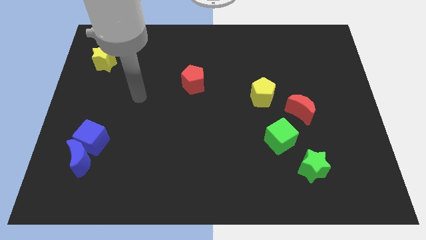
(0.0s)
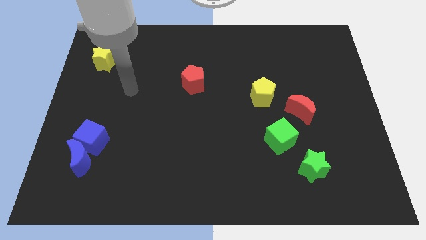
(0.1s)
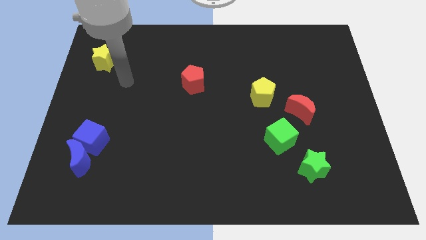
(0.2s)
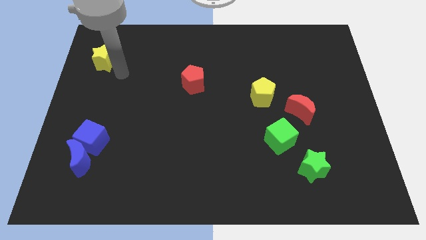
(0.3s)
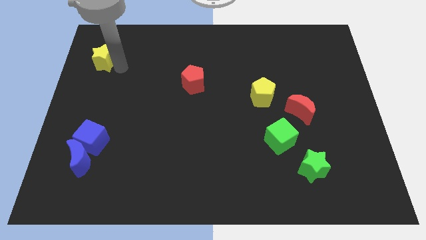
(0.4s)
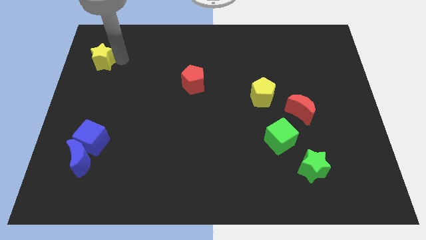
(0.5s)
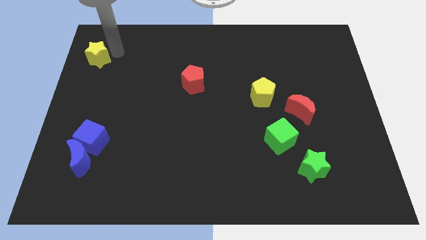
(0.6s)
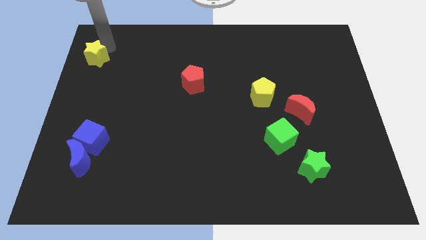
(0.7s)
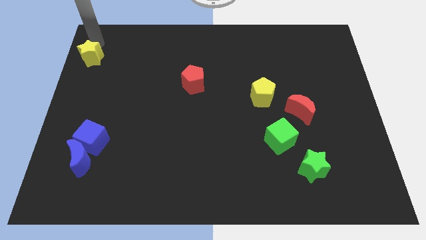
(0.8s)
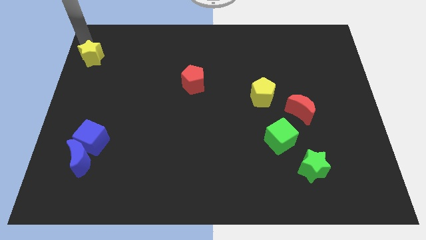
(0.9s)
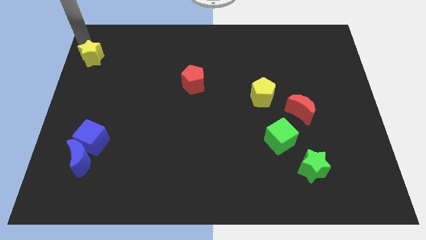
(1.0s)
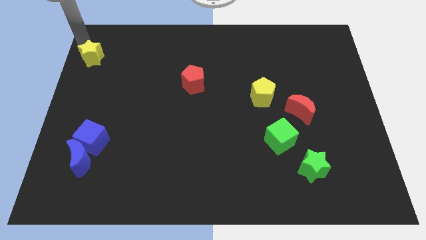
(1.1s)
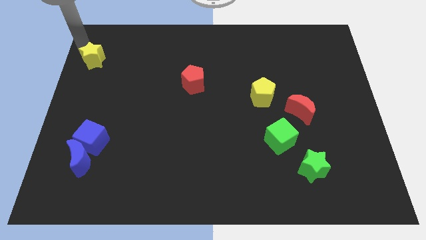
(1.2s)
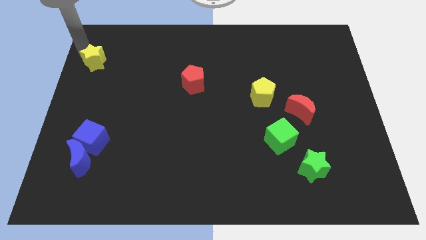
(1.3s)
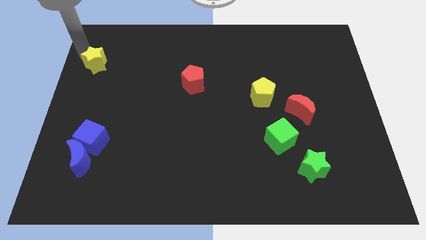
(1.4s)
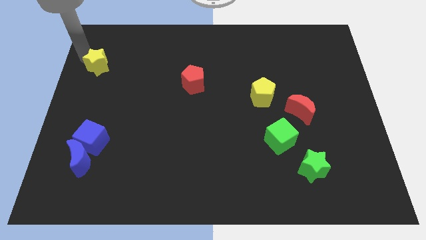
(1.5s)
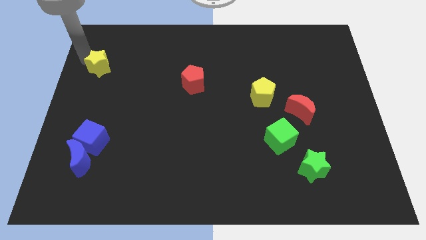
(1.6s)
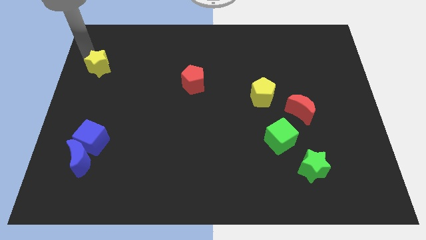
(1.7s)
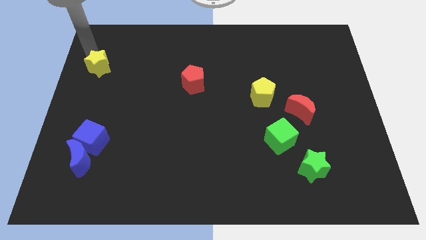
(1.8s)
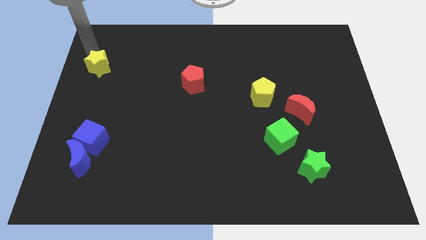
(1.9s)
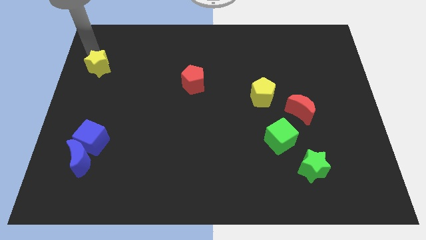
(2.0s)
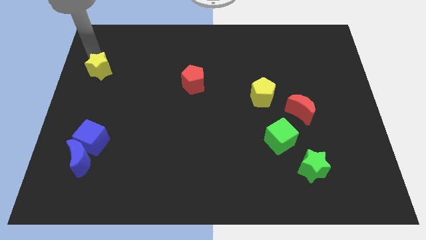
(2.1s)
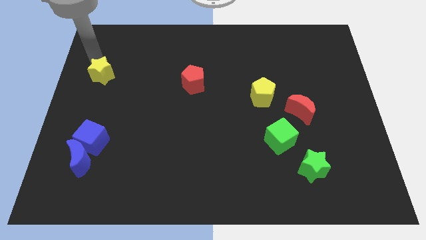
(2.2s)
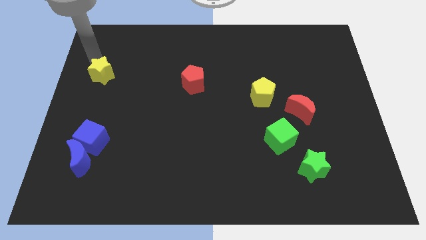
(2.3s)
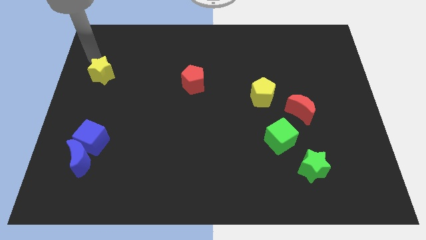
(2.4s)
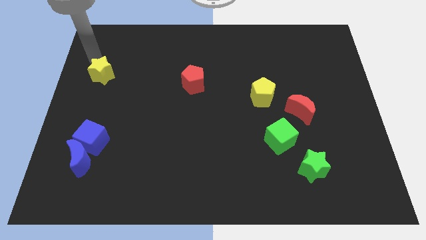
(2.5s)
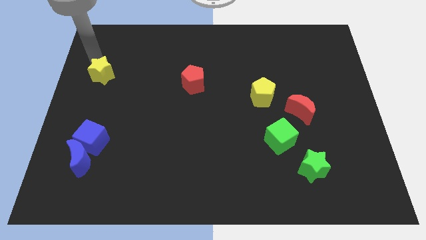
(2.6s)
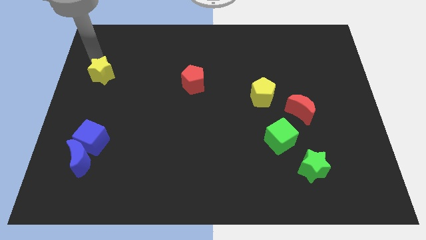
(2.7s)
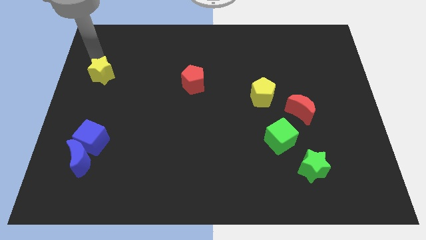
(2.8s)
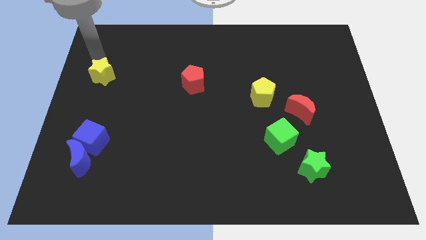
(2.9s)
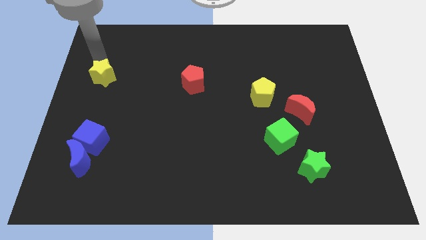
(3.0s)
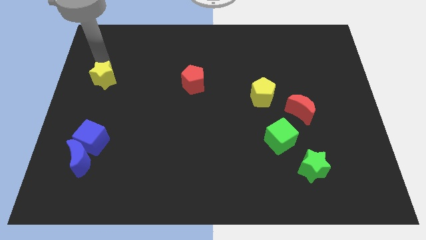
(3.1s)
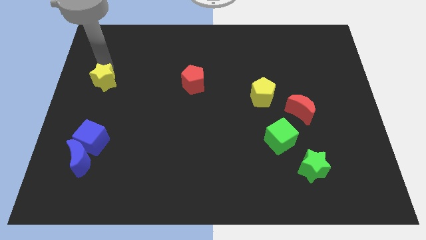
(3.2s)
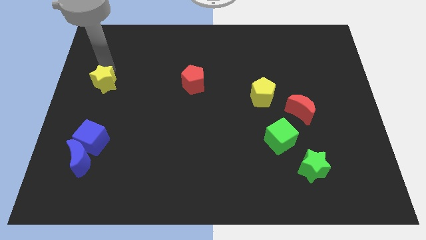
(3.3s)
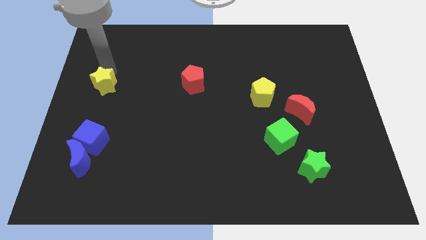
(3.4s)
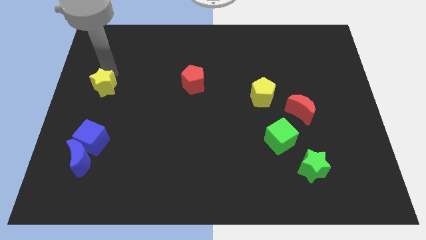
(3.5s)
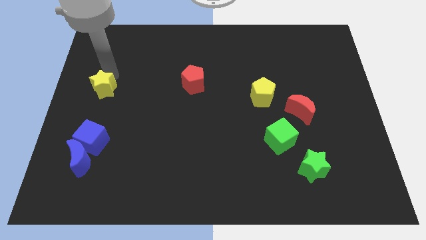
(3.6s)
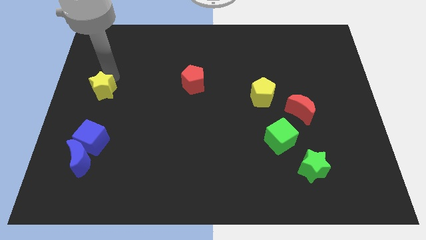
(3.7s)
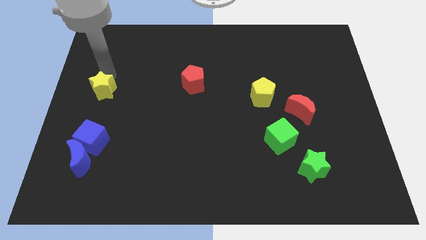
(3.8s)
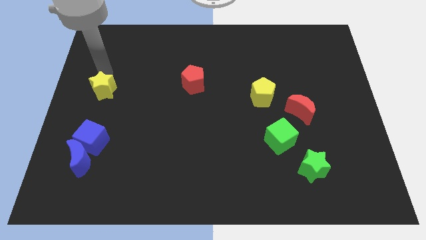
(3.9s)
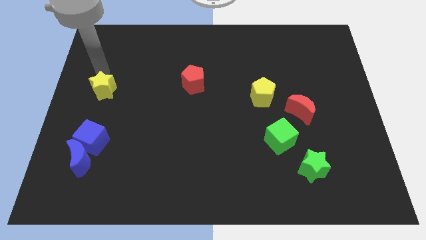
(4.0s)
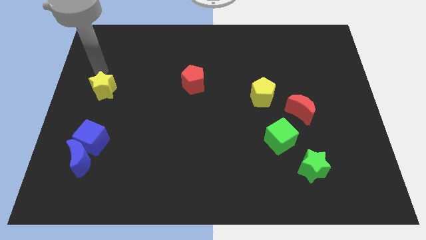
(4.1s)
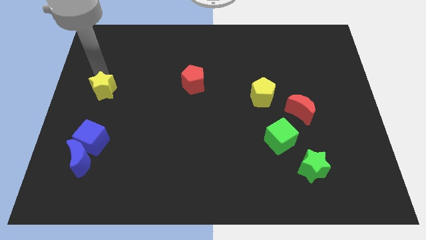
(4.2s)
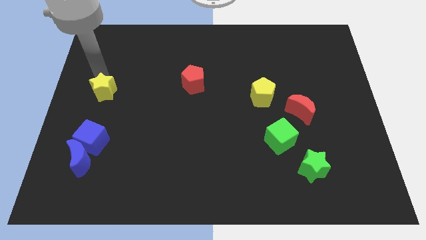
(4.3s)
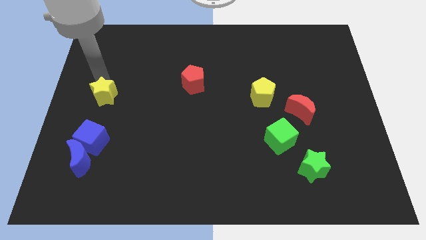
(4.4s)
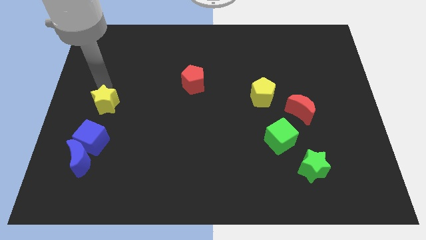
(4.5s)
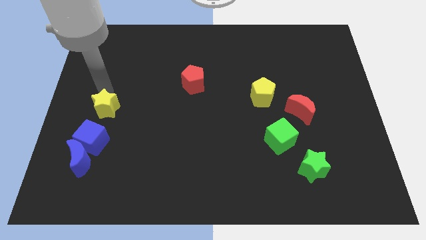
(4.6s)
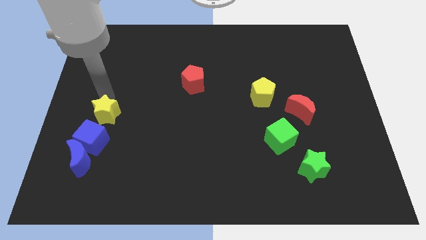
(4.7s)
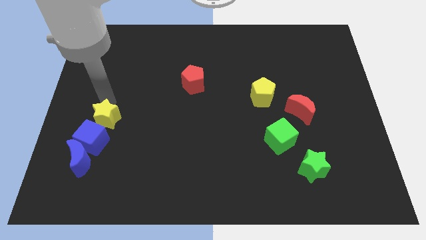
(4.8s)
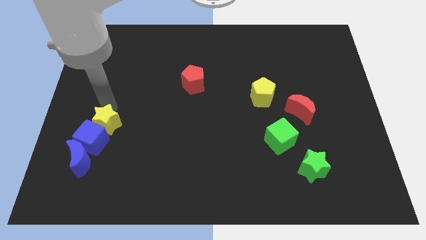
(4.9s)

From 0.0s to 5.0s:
move the yellow star close to the blue cube

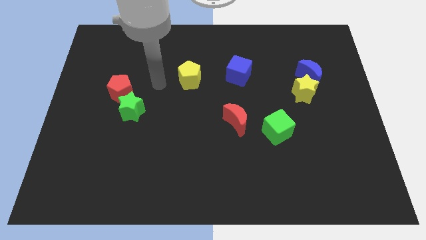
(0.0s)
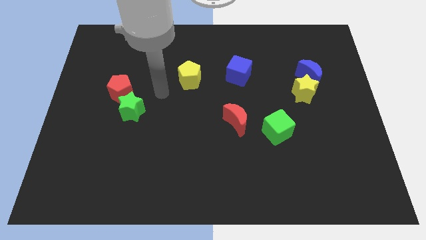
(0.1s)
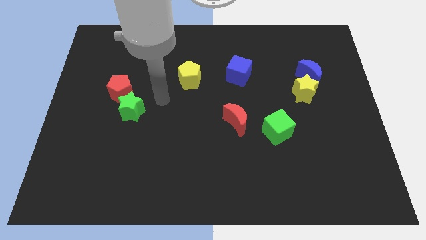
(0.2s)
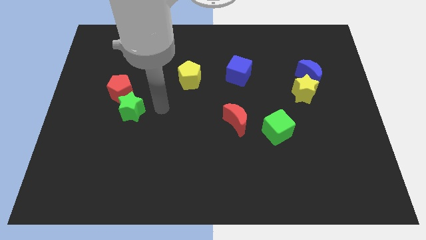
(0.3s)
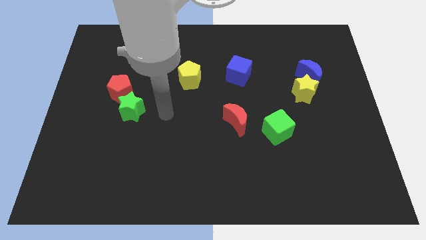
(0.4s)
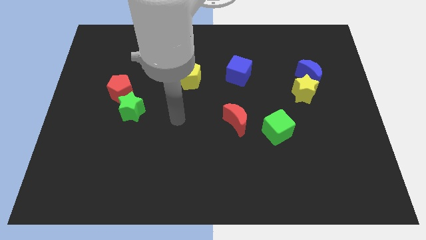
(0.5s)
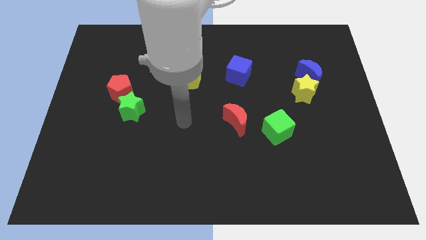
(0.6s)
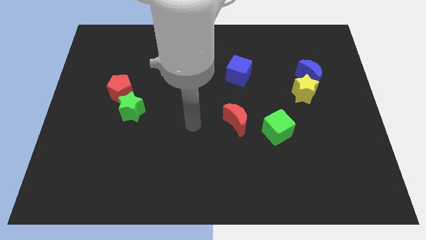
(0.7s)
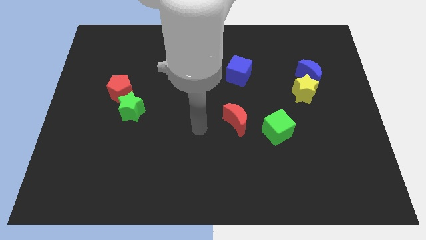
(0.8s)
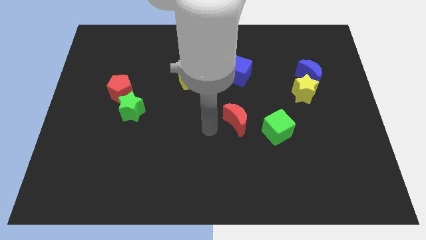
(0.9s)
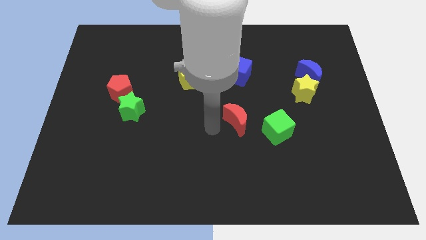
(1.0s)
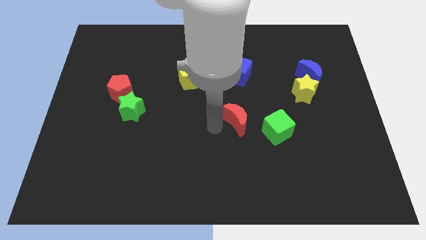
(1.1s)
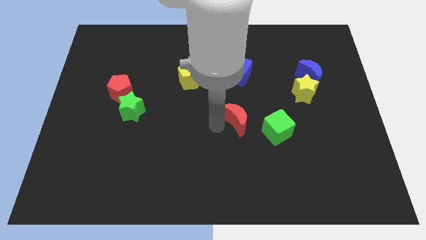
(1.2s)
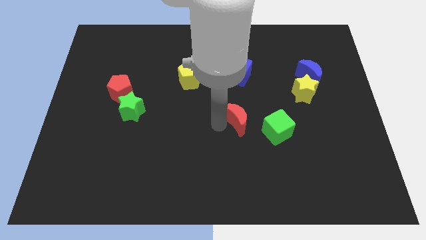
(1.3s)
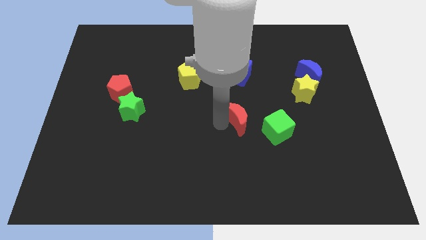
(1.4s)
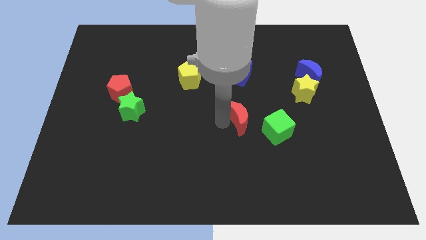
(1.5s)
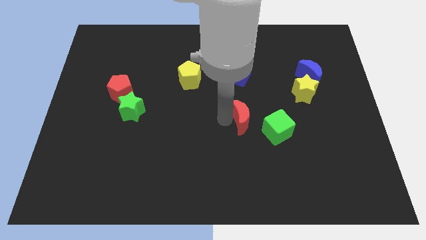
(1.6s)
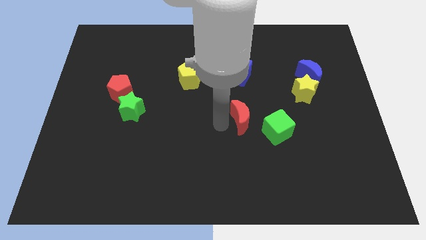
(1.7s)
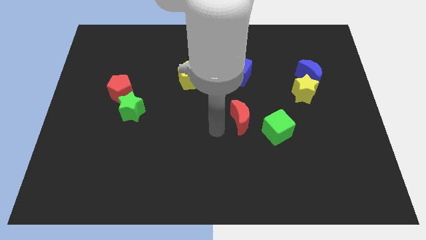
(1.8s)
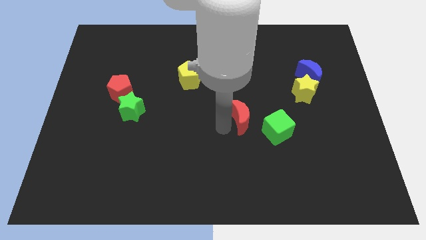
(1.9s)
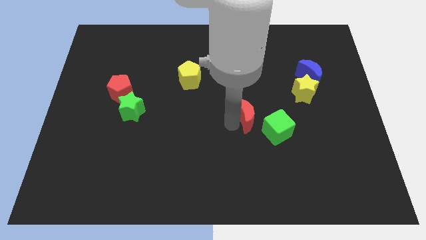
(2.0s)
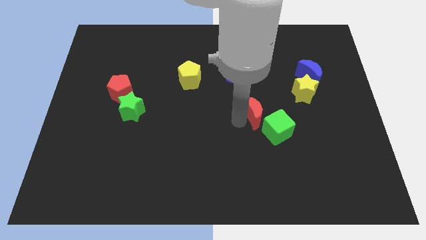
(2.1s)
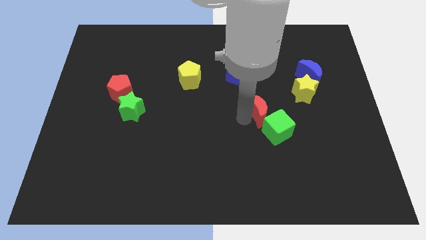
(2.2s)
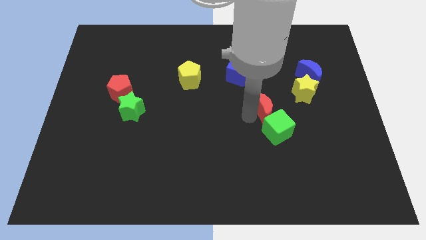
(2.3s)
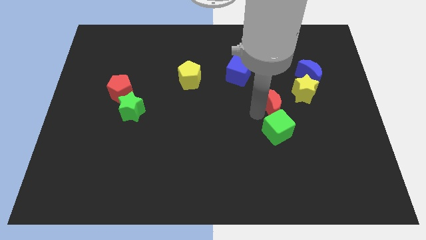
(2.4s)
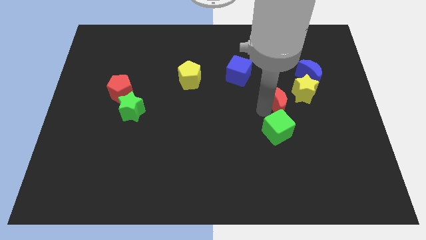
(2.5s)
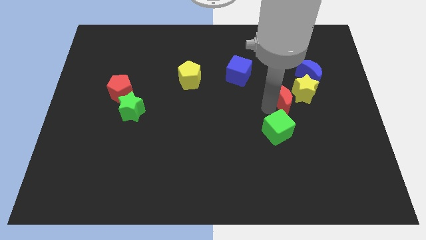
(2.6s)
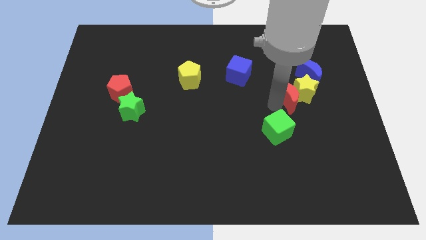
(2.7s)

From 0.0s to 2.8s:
move the red moon close to the yellow star
